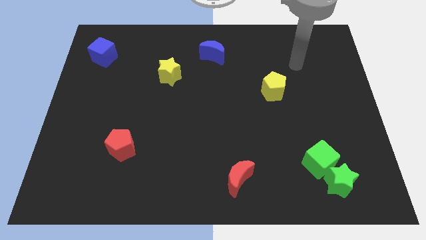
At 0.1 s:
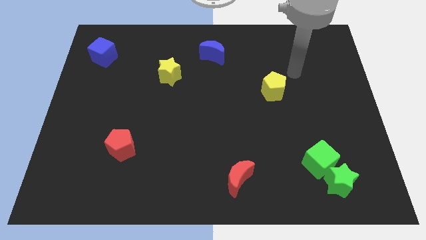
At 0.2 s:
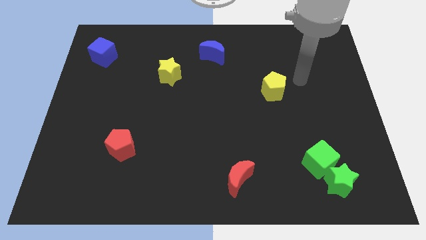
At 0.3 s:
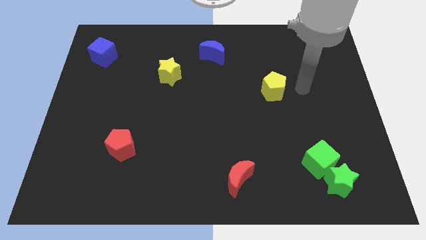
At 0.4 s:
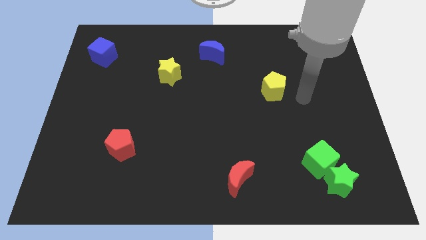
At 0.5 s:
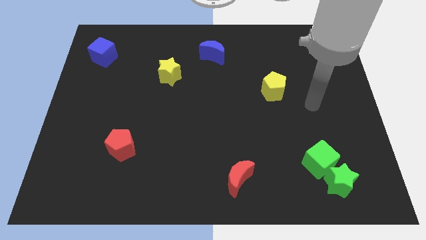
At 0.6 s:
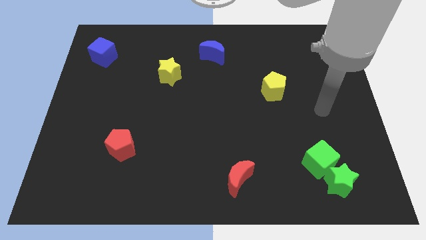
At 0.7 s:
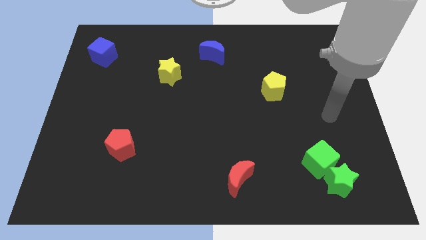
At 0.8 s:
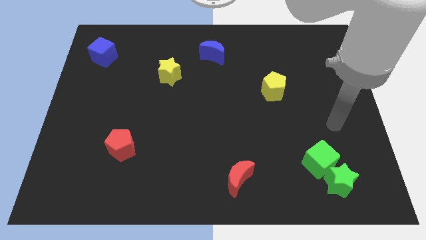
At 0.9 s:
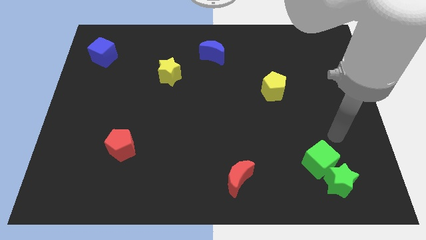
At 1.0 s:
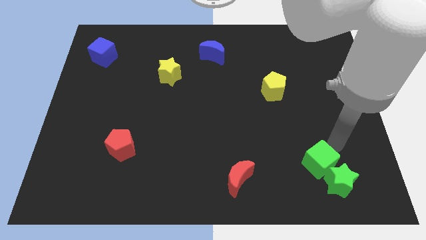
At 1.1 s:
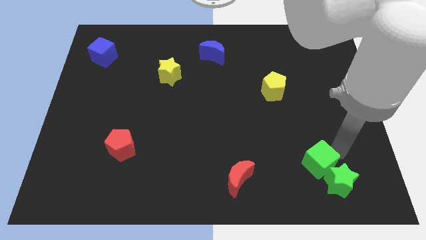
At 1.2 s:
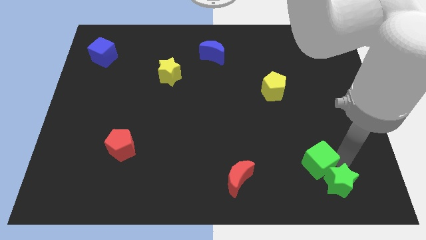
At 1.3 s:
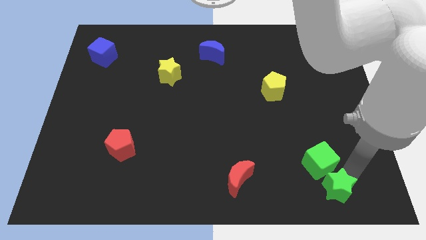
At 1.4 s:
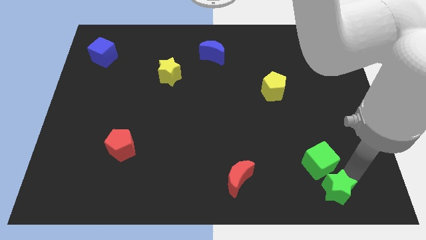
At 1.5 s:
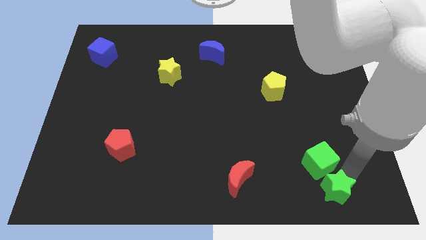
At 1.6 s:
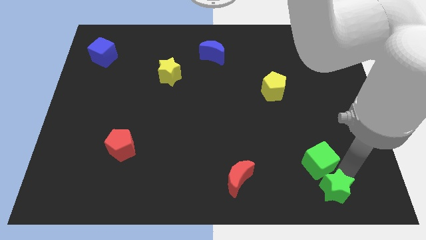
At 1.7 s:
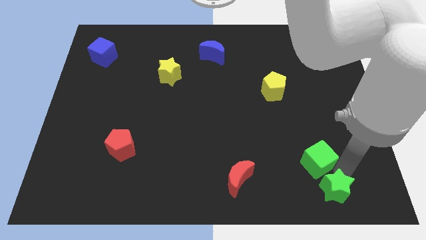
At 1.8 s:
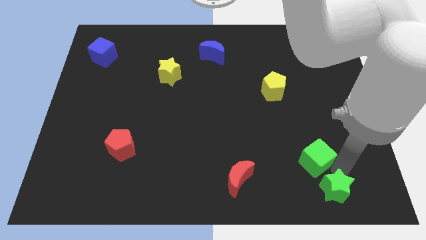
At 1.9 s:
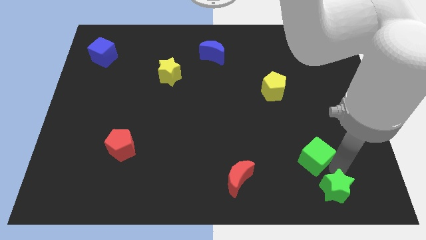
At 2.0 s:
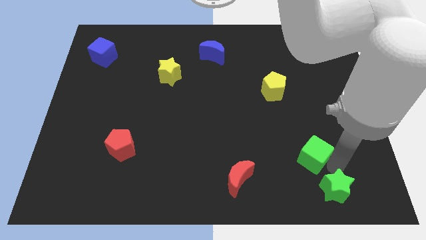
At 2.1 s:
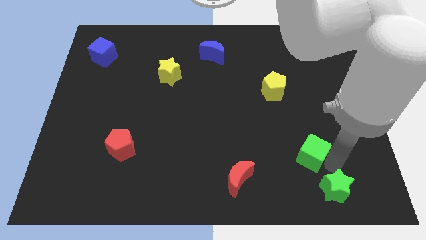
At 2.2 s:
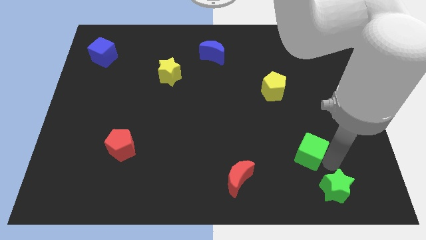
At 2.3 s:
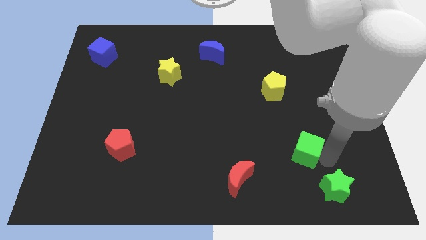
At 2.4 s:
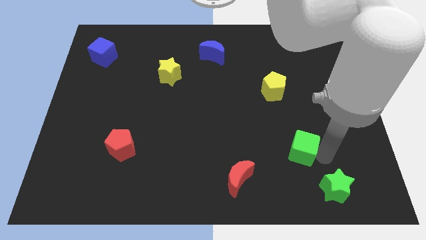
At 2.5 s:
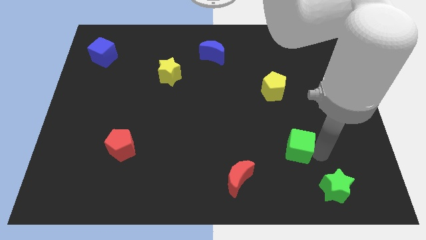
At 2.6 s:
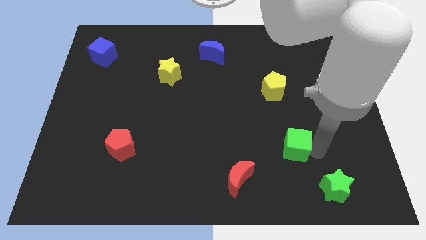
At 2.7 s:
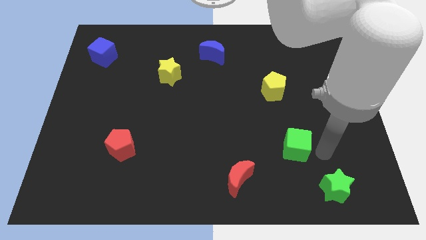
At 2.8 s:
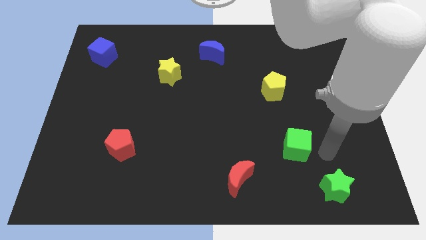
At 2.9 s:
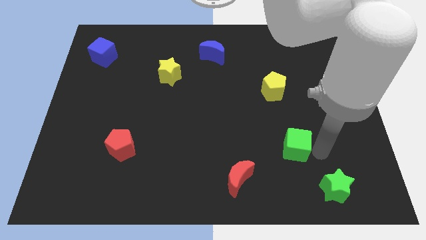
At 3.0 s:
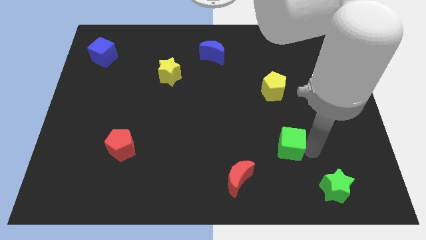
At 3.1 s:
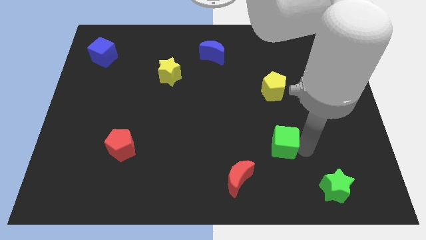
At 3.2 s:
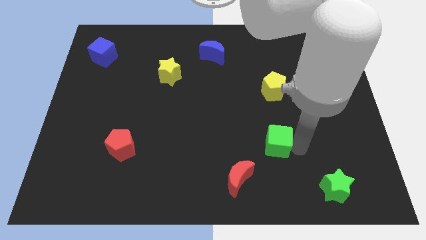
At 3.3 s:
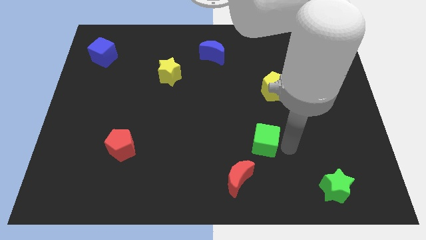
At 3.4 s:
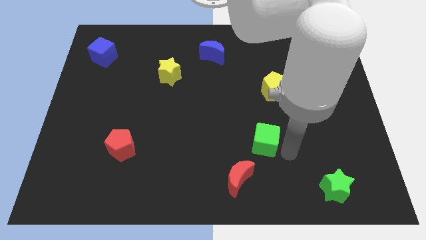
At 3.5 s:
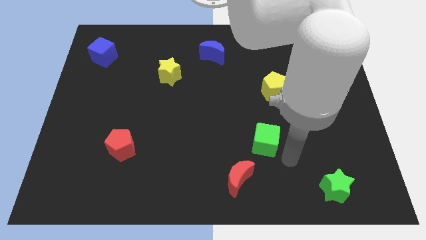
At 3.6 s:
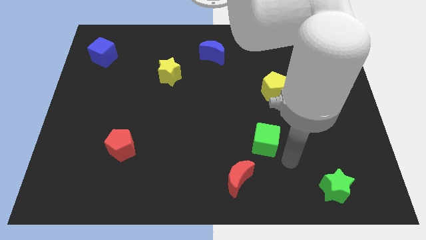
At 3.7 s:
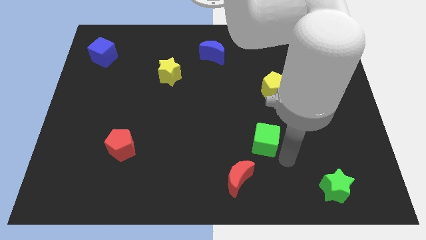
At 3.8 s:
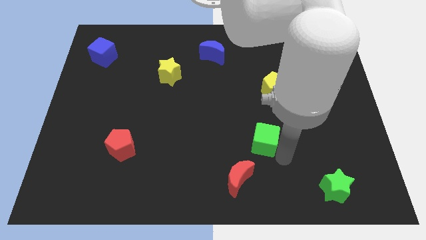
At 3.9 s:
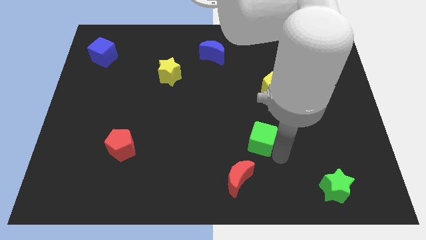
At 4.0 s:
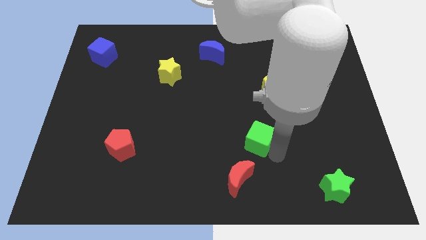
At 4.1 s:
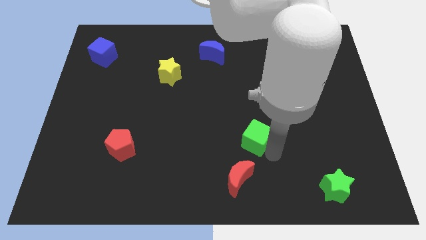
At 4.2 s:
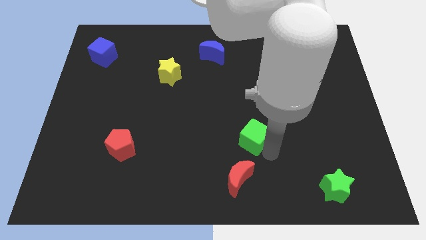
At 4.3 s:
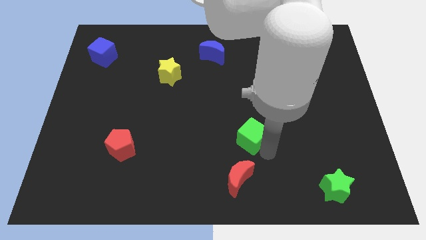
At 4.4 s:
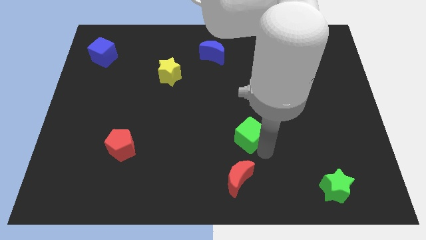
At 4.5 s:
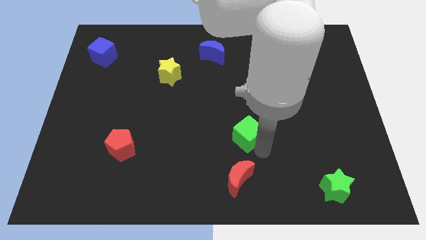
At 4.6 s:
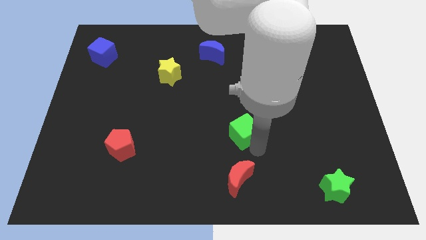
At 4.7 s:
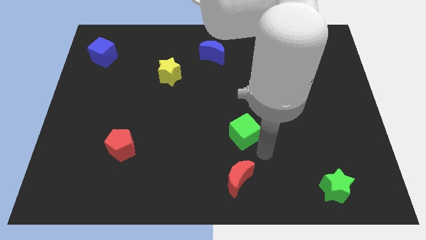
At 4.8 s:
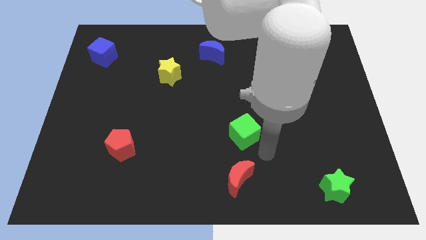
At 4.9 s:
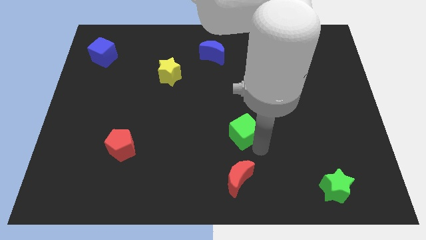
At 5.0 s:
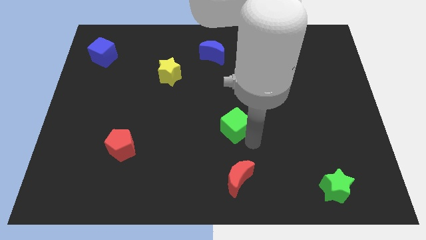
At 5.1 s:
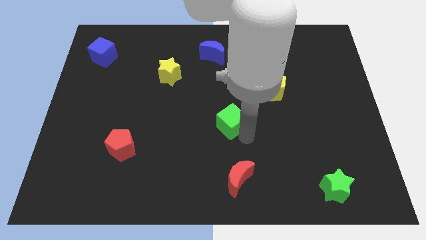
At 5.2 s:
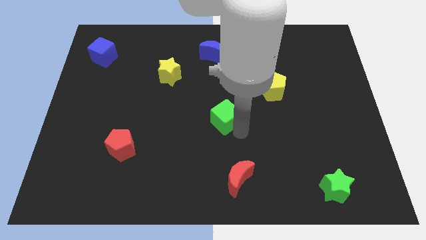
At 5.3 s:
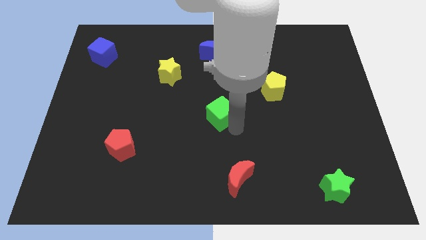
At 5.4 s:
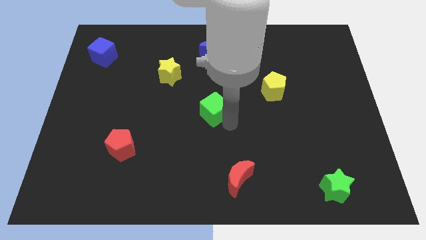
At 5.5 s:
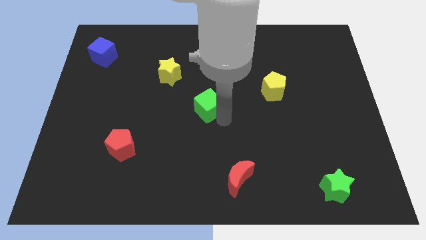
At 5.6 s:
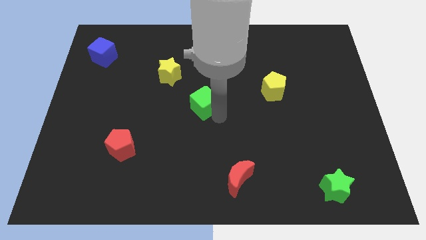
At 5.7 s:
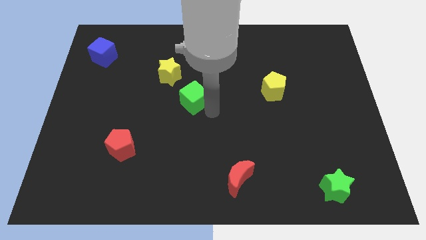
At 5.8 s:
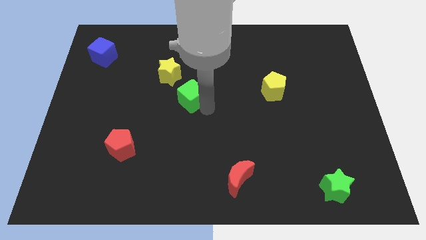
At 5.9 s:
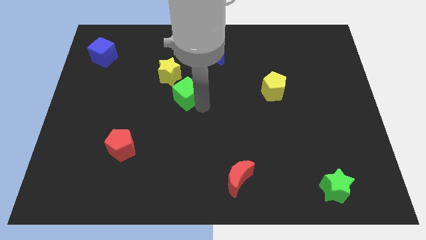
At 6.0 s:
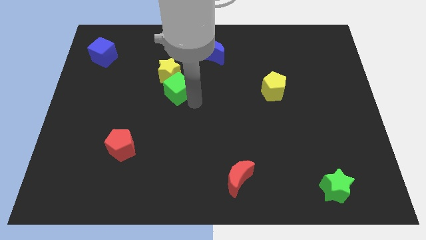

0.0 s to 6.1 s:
move the green cube close to the yellow star

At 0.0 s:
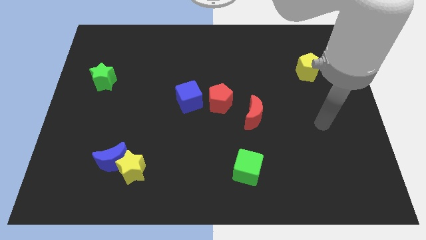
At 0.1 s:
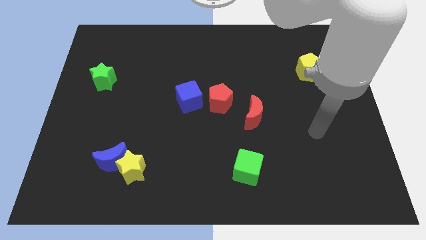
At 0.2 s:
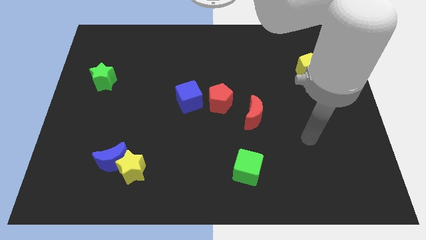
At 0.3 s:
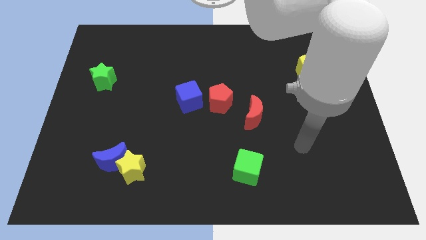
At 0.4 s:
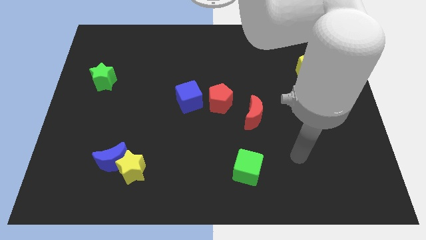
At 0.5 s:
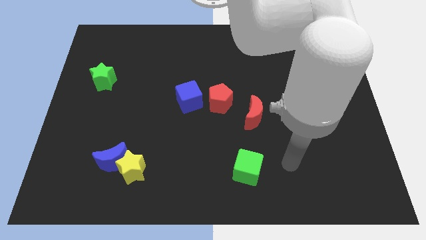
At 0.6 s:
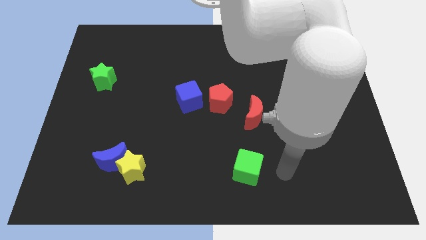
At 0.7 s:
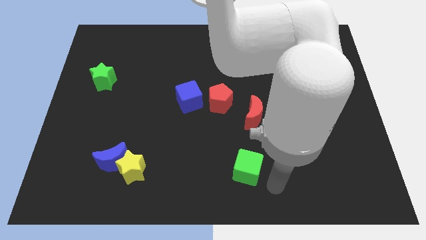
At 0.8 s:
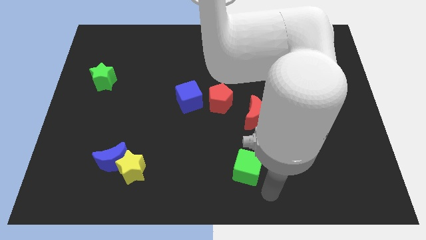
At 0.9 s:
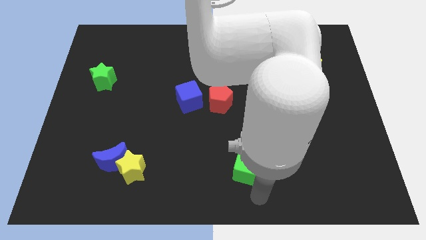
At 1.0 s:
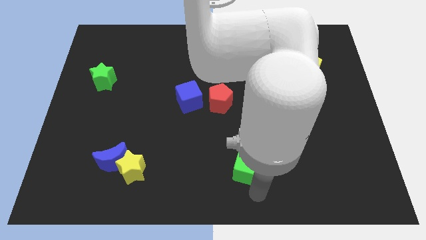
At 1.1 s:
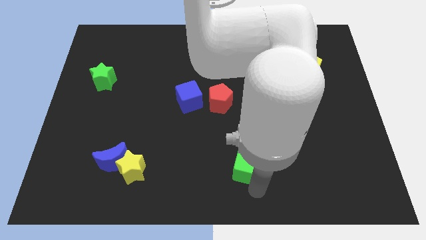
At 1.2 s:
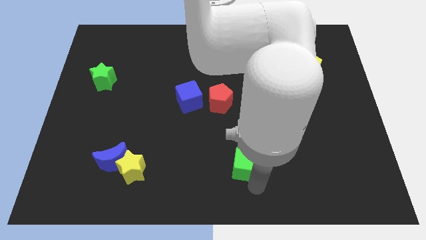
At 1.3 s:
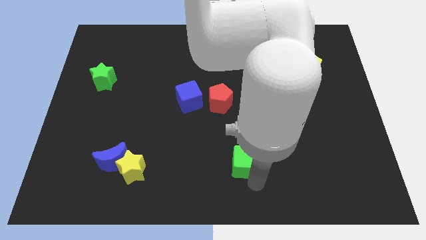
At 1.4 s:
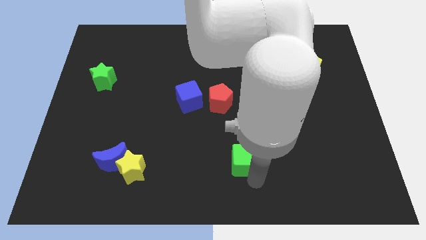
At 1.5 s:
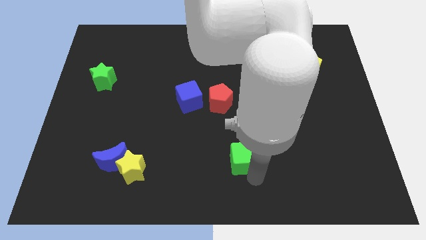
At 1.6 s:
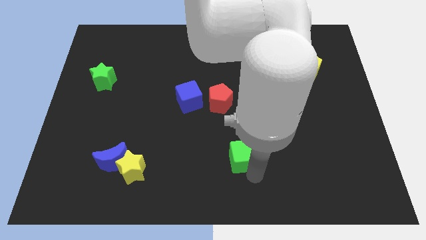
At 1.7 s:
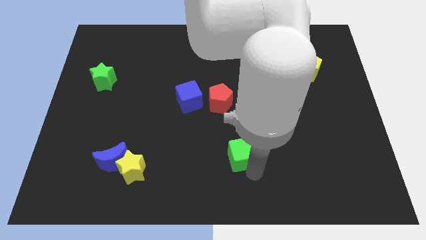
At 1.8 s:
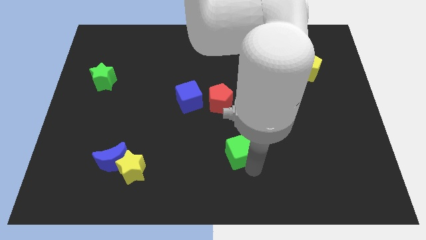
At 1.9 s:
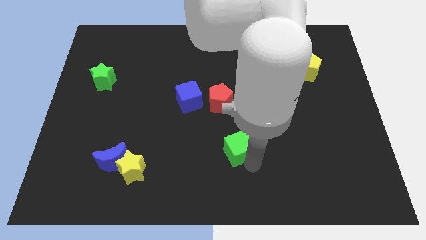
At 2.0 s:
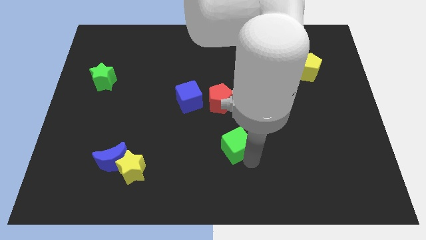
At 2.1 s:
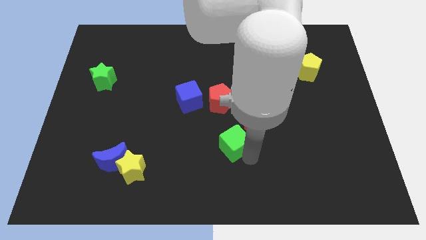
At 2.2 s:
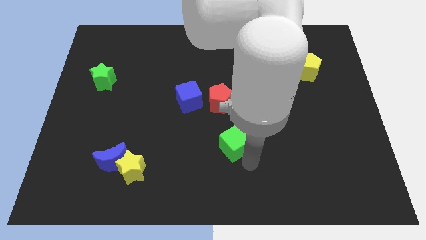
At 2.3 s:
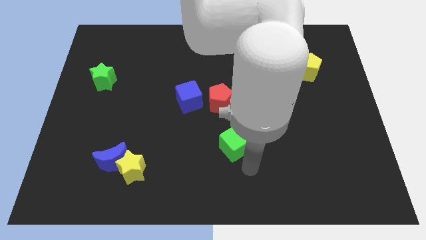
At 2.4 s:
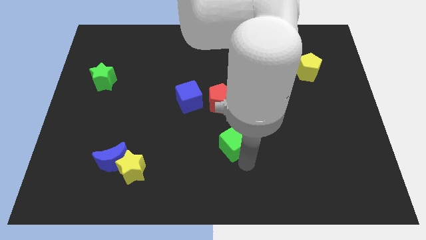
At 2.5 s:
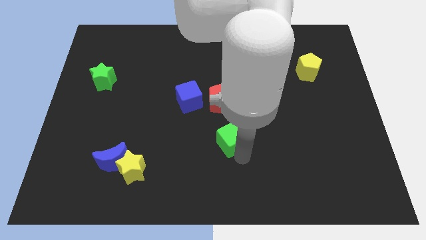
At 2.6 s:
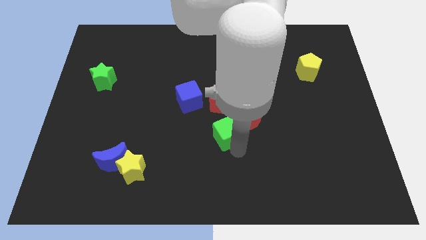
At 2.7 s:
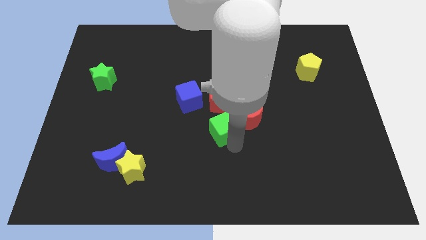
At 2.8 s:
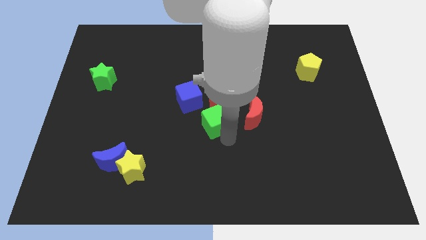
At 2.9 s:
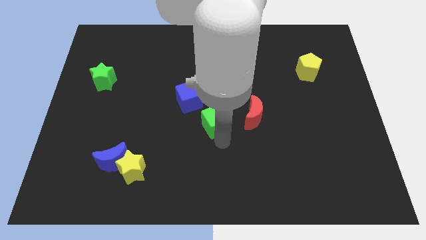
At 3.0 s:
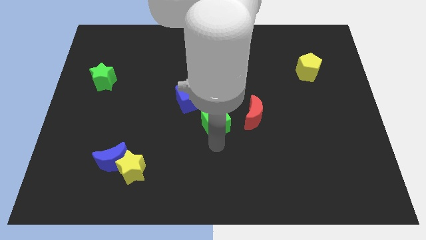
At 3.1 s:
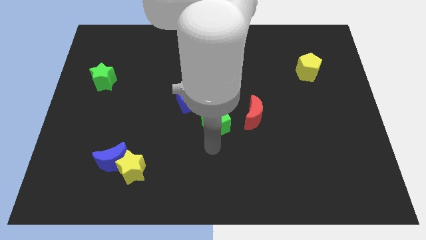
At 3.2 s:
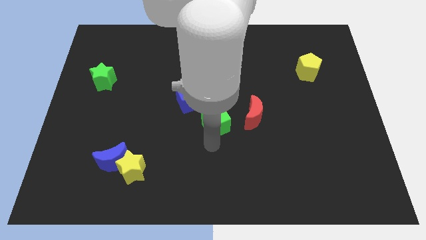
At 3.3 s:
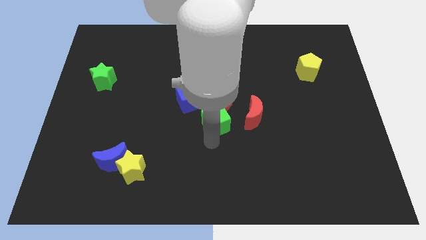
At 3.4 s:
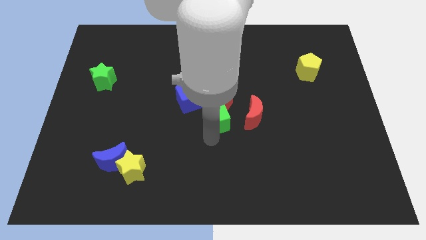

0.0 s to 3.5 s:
put the green cube close to the red pentagon
